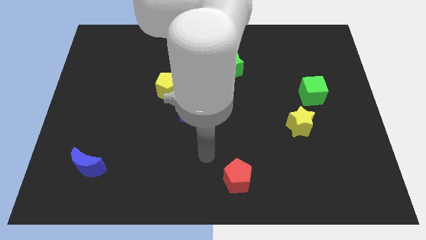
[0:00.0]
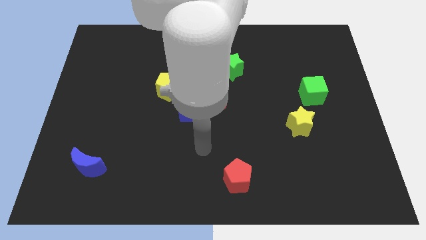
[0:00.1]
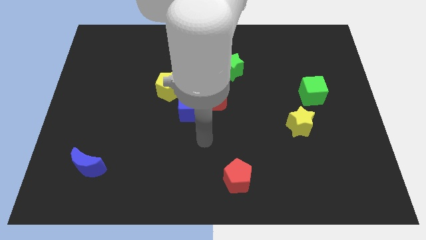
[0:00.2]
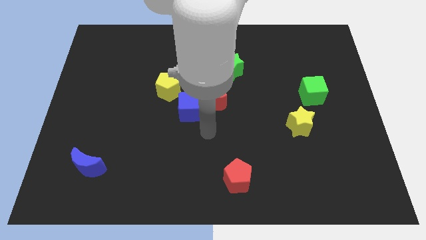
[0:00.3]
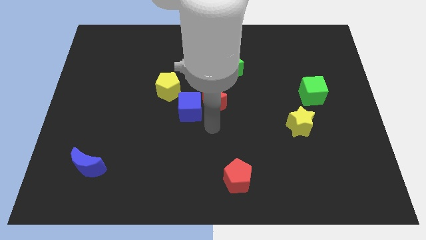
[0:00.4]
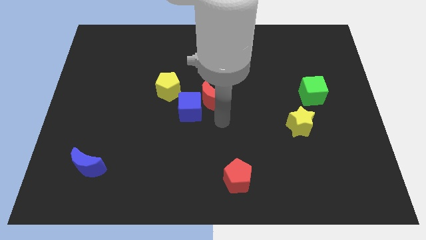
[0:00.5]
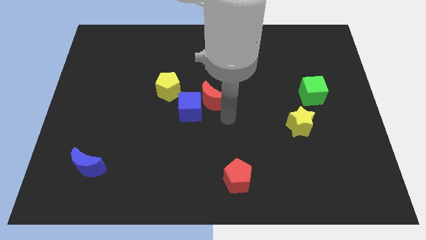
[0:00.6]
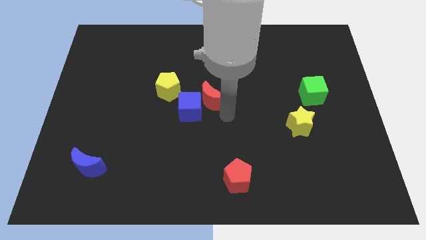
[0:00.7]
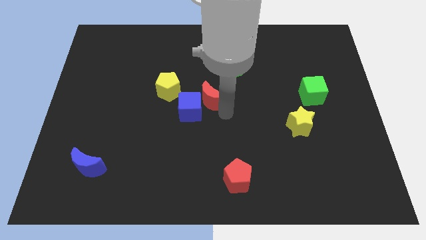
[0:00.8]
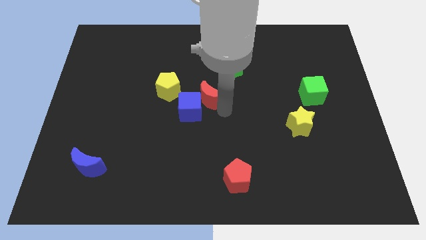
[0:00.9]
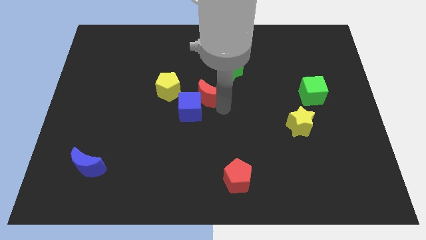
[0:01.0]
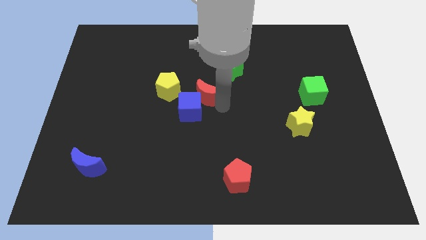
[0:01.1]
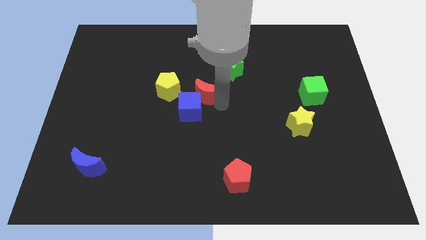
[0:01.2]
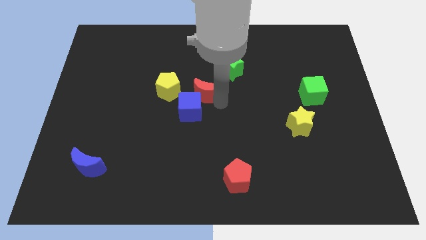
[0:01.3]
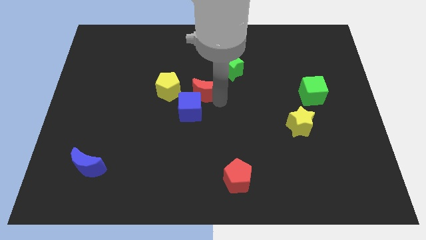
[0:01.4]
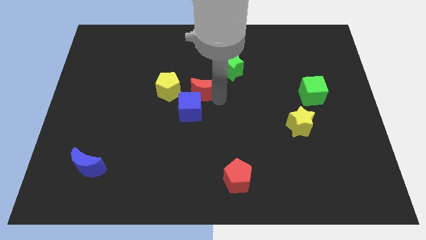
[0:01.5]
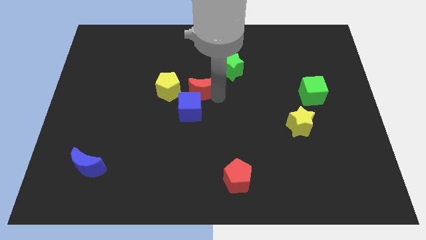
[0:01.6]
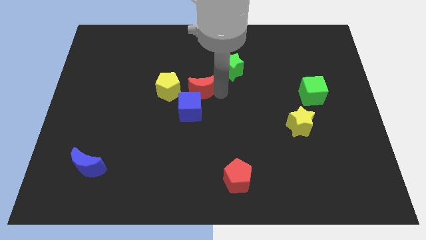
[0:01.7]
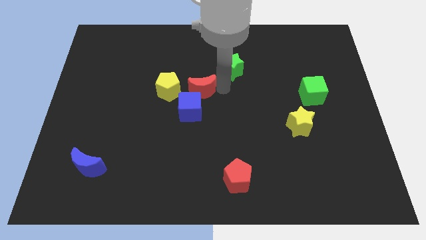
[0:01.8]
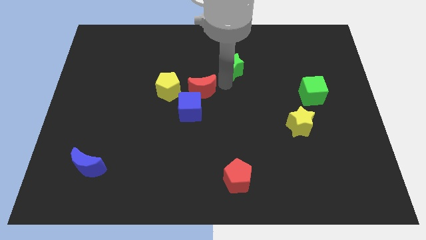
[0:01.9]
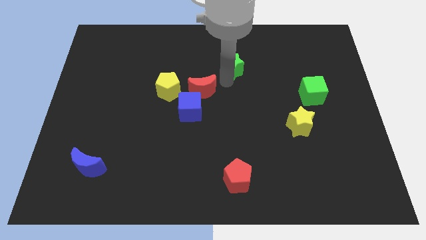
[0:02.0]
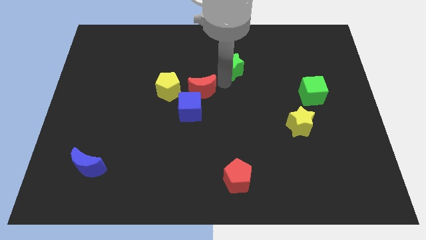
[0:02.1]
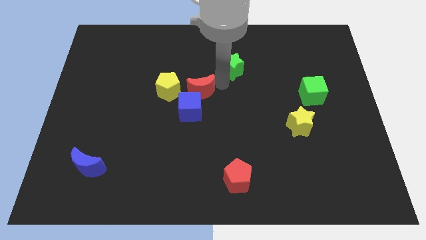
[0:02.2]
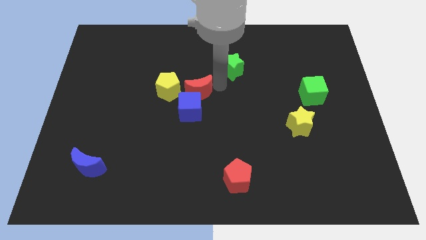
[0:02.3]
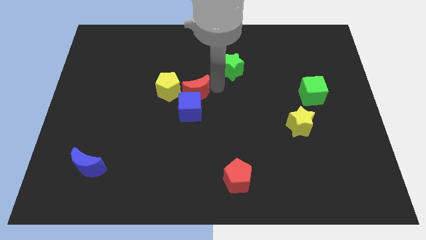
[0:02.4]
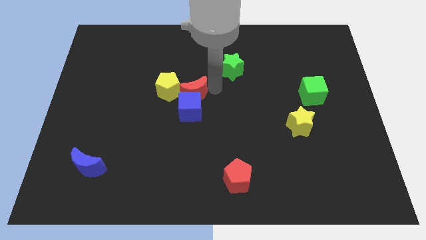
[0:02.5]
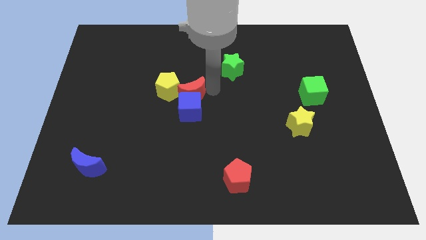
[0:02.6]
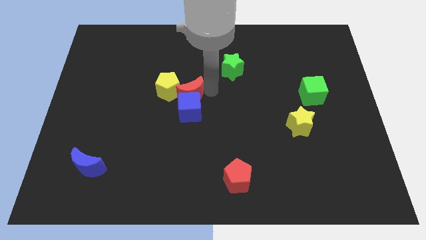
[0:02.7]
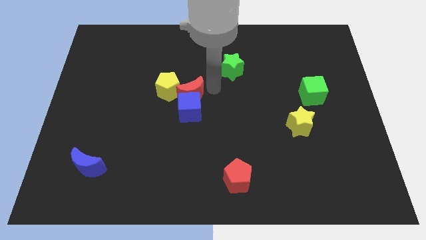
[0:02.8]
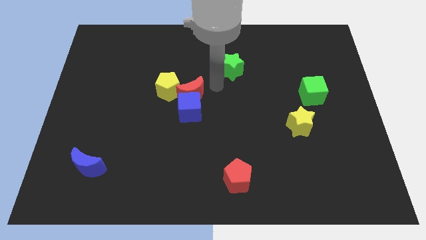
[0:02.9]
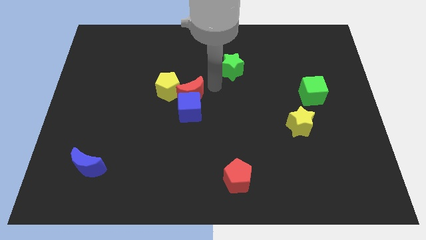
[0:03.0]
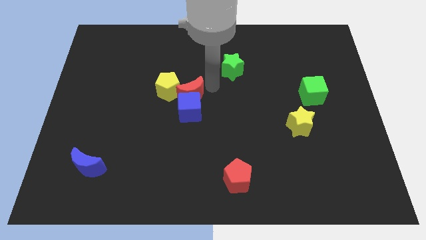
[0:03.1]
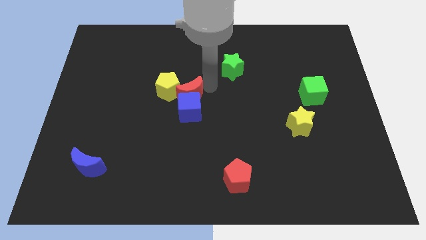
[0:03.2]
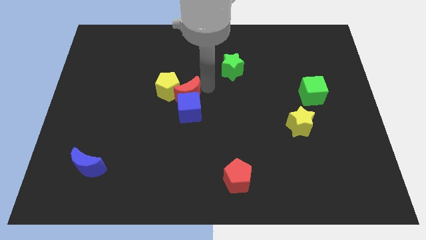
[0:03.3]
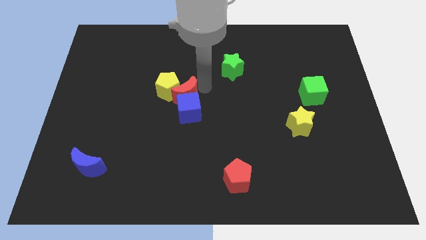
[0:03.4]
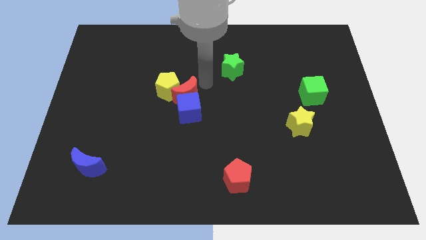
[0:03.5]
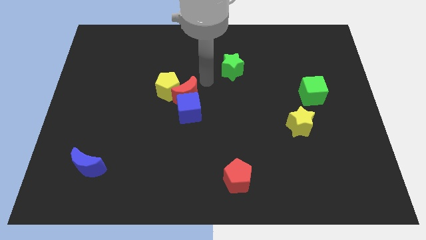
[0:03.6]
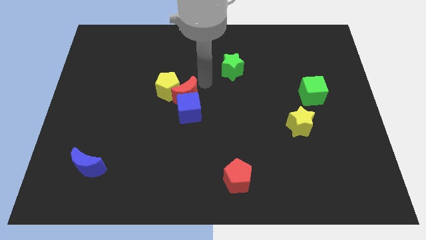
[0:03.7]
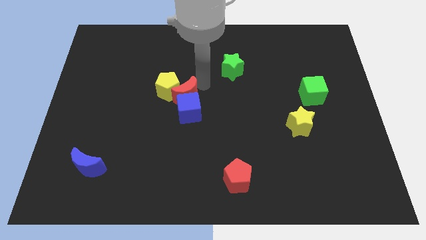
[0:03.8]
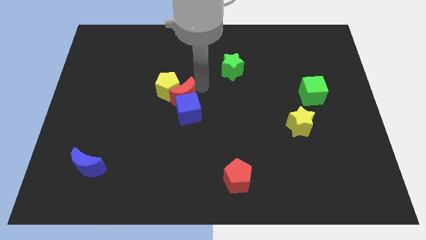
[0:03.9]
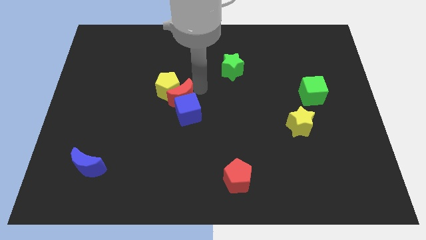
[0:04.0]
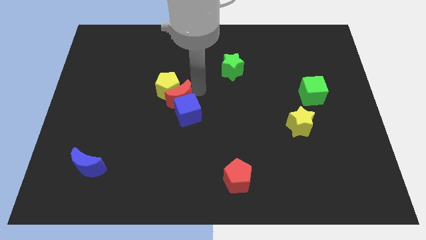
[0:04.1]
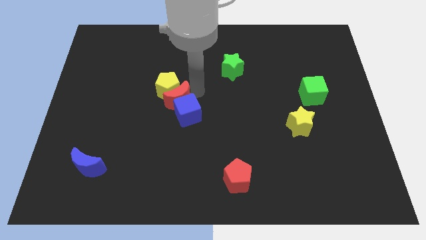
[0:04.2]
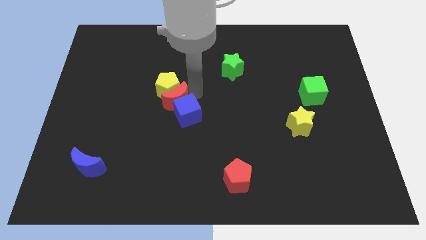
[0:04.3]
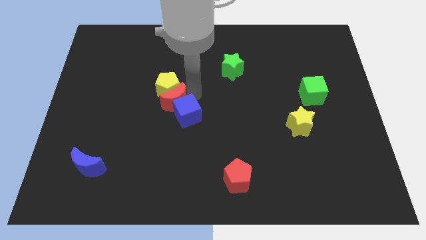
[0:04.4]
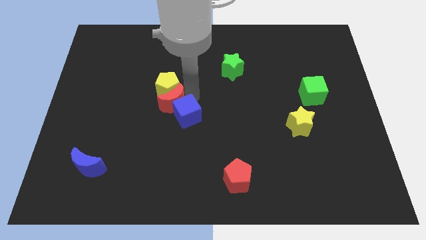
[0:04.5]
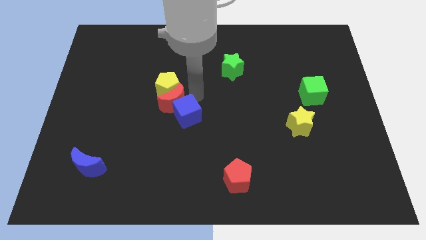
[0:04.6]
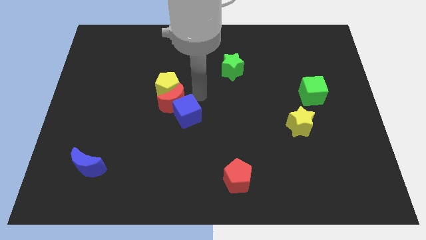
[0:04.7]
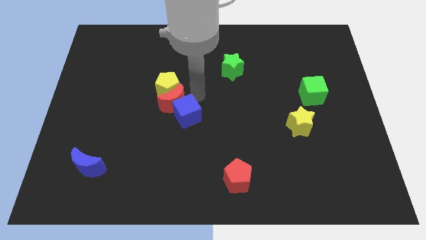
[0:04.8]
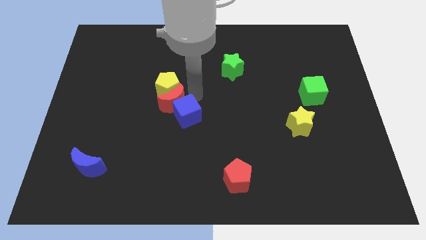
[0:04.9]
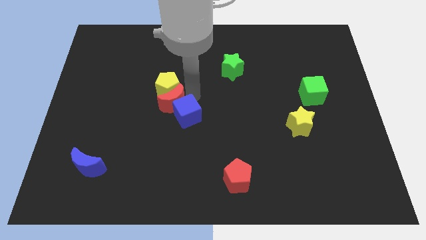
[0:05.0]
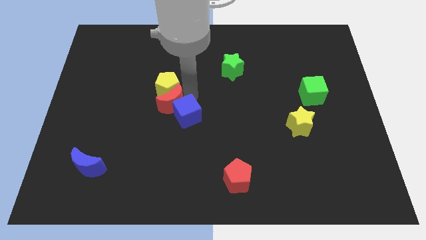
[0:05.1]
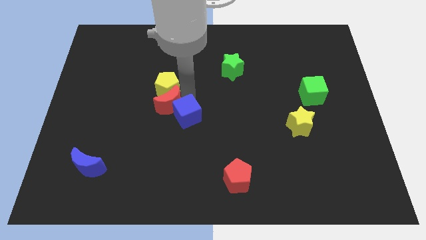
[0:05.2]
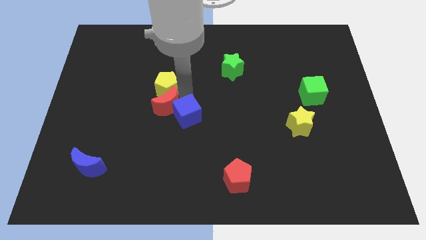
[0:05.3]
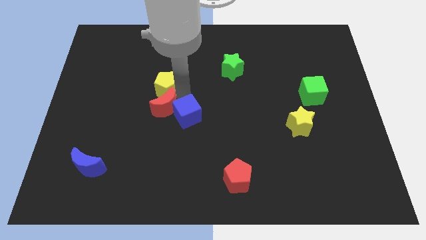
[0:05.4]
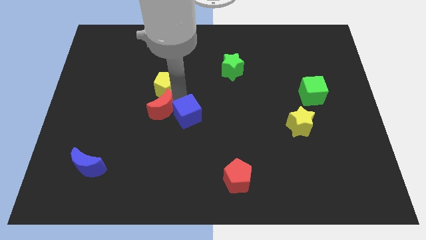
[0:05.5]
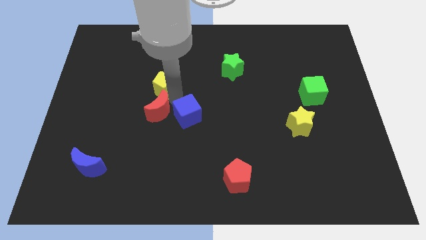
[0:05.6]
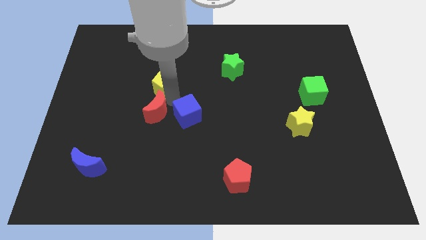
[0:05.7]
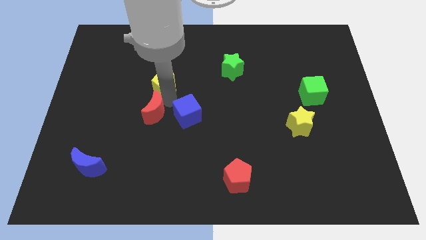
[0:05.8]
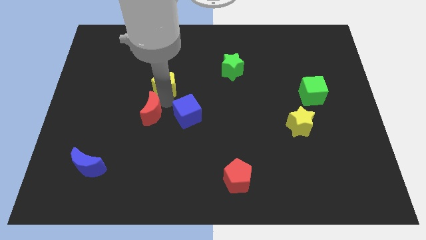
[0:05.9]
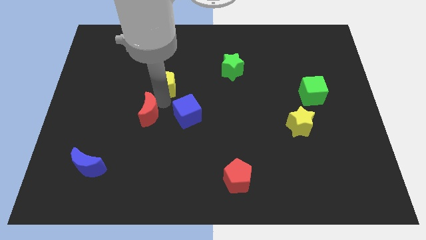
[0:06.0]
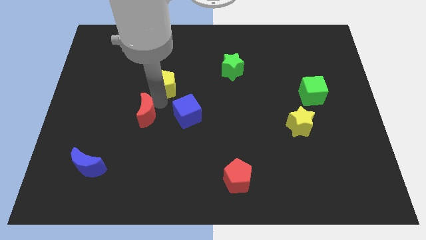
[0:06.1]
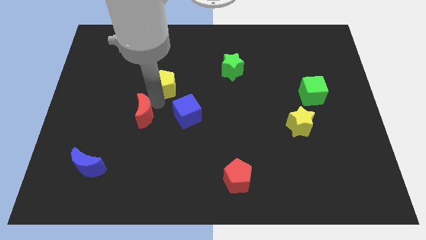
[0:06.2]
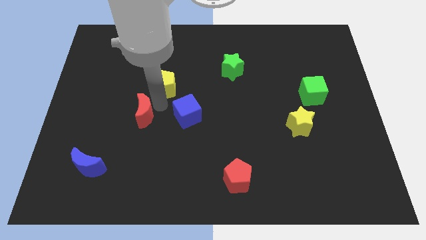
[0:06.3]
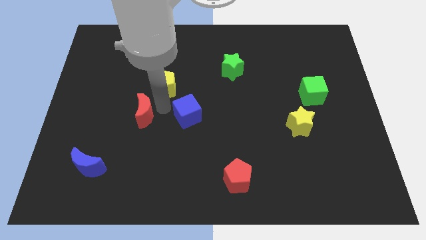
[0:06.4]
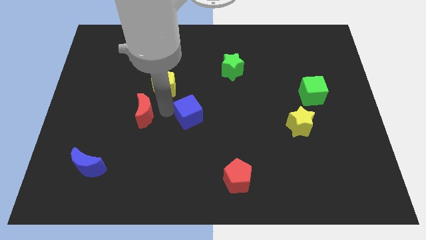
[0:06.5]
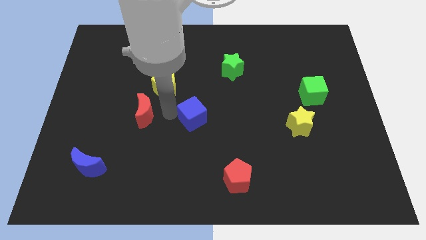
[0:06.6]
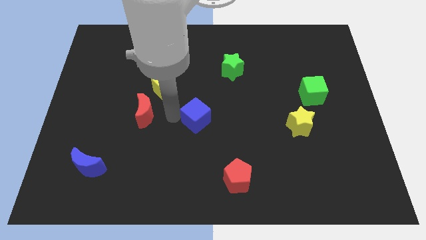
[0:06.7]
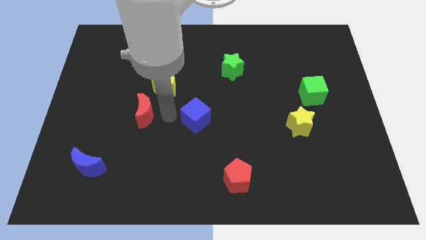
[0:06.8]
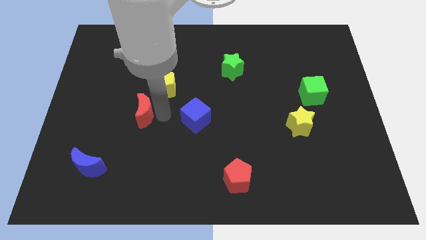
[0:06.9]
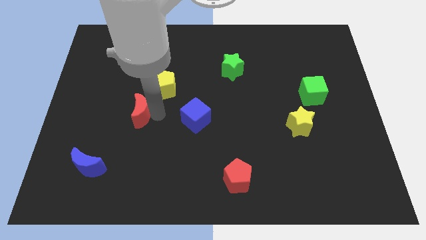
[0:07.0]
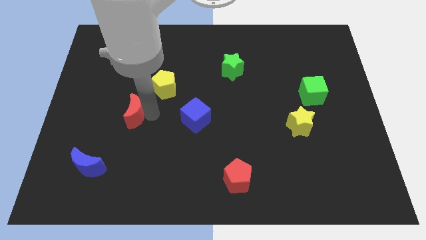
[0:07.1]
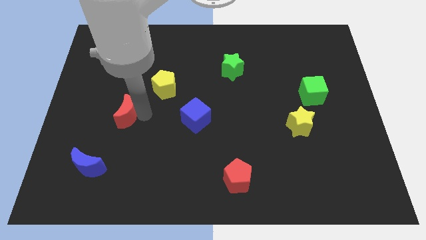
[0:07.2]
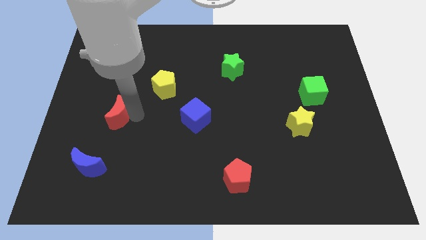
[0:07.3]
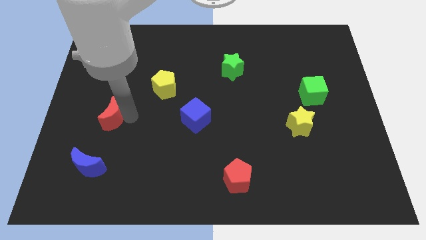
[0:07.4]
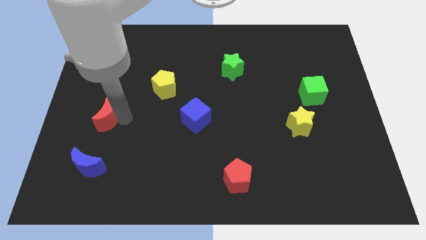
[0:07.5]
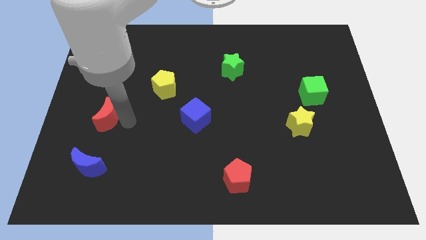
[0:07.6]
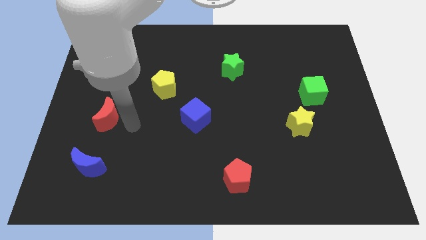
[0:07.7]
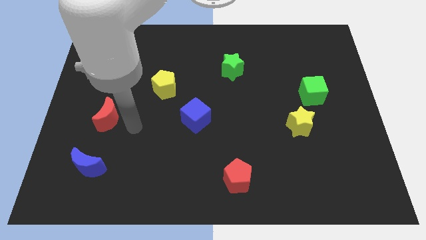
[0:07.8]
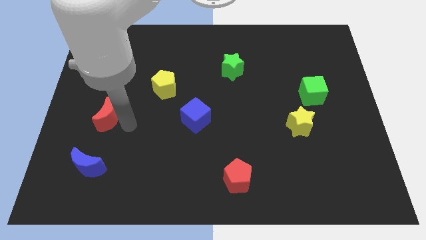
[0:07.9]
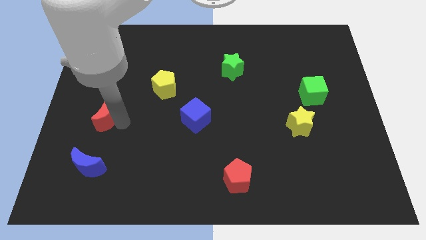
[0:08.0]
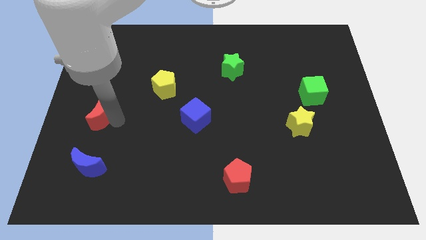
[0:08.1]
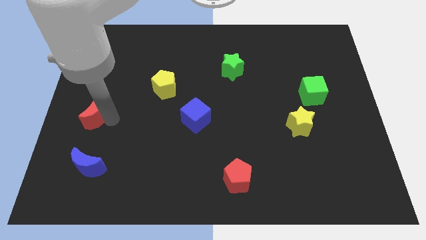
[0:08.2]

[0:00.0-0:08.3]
move the red moon to the left side
